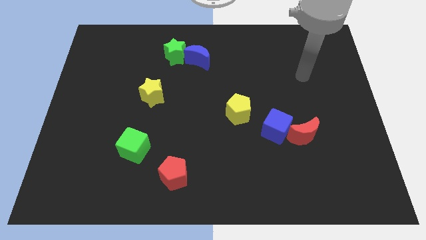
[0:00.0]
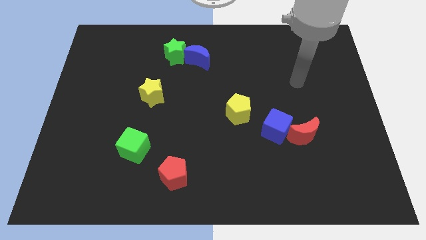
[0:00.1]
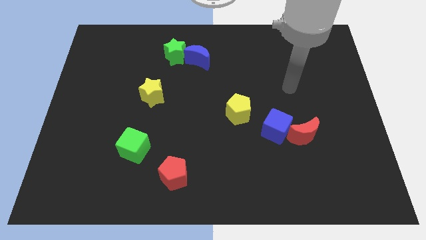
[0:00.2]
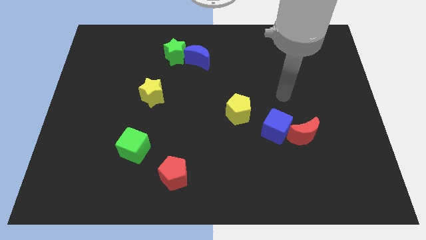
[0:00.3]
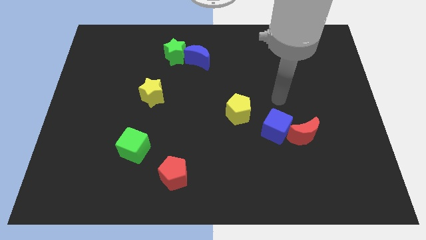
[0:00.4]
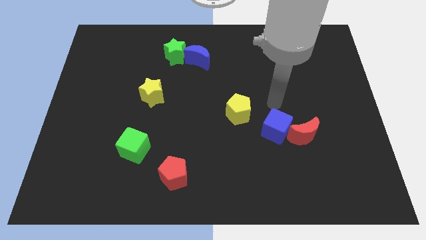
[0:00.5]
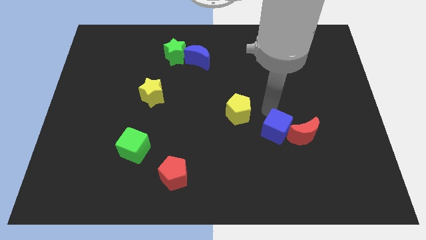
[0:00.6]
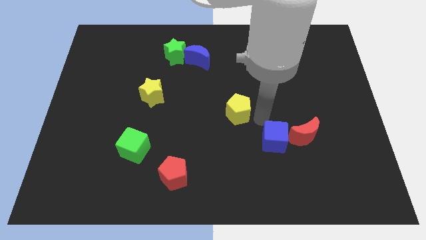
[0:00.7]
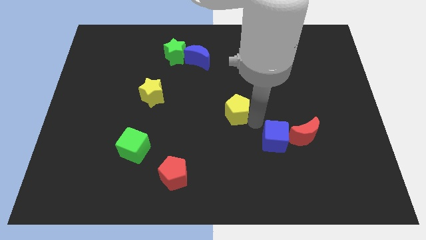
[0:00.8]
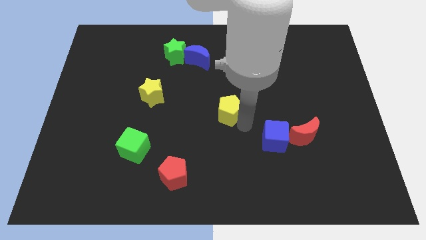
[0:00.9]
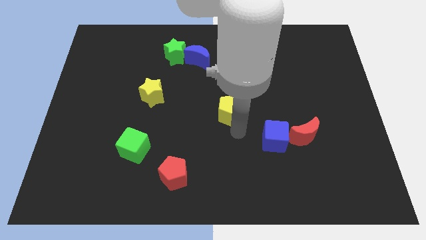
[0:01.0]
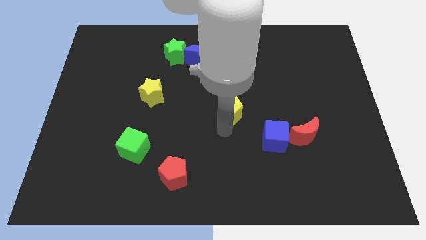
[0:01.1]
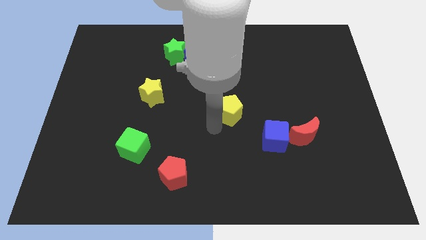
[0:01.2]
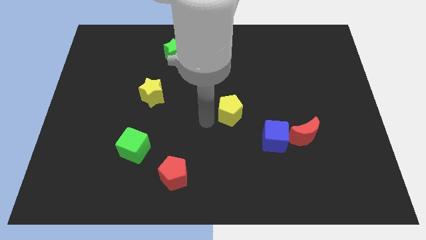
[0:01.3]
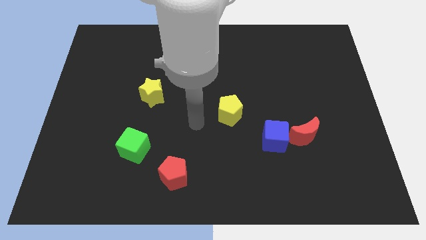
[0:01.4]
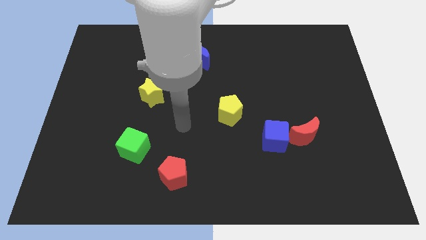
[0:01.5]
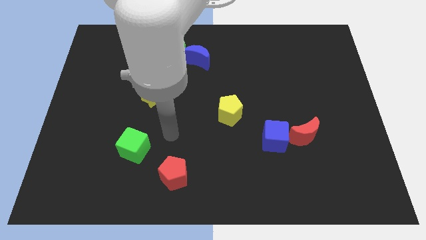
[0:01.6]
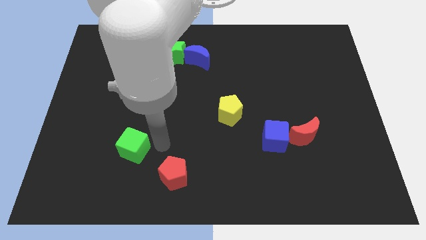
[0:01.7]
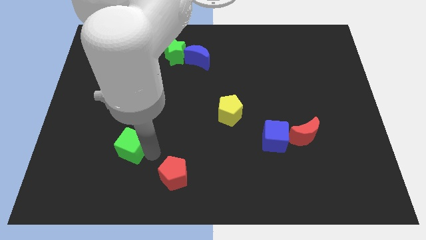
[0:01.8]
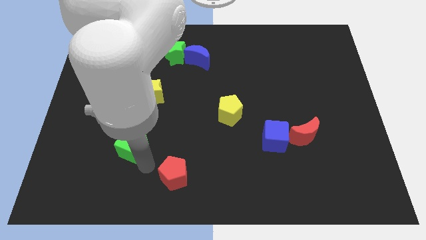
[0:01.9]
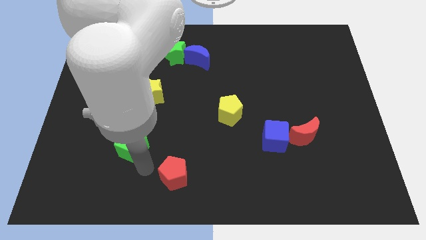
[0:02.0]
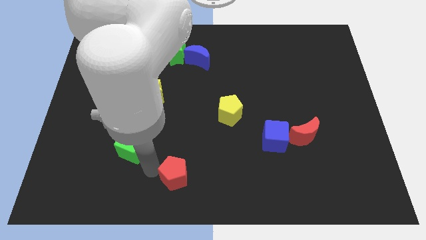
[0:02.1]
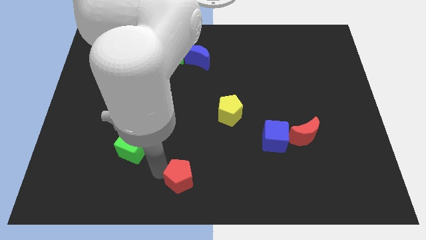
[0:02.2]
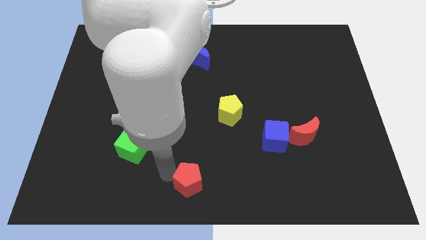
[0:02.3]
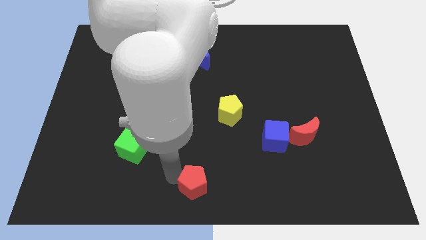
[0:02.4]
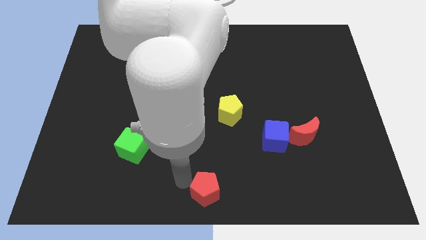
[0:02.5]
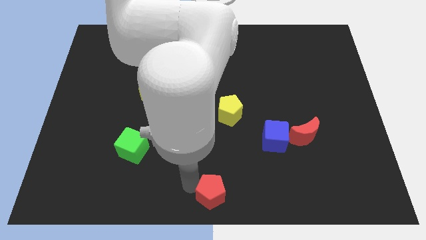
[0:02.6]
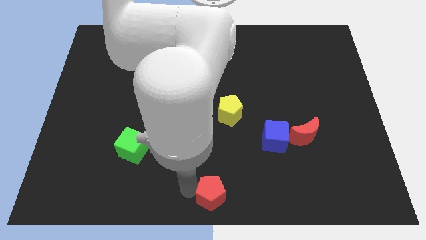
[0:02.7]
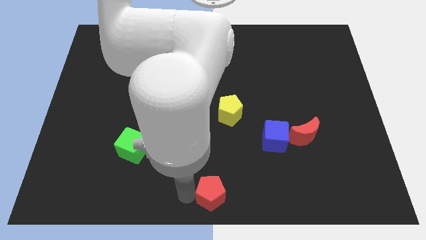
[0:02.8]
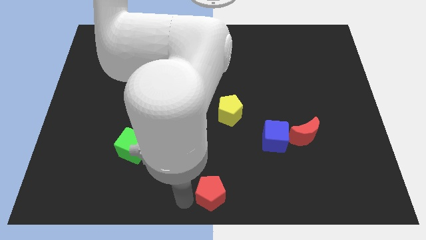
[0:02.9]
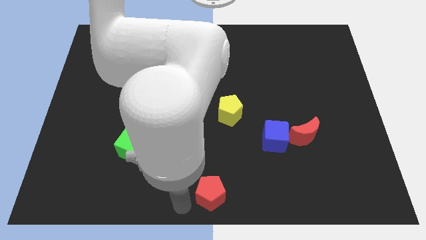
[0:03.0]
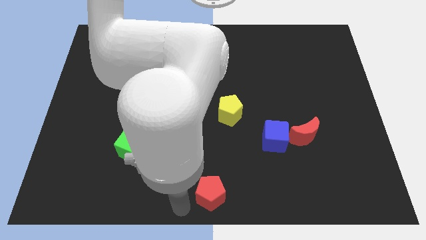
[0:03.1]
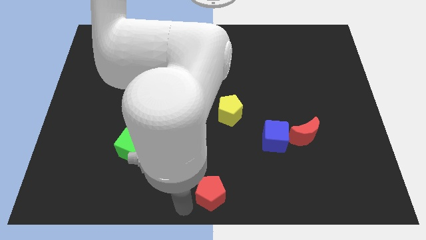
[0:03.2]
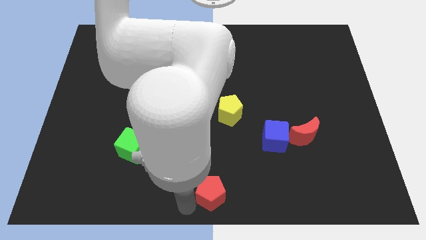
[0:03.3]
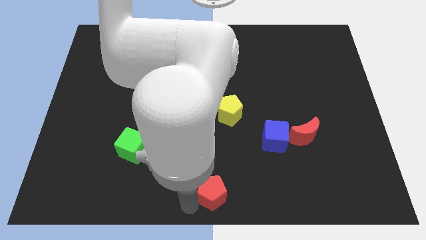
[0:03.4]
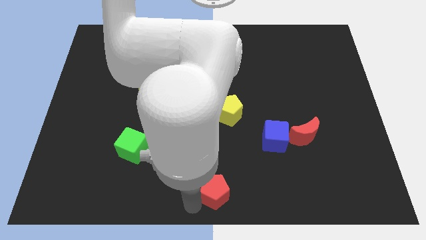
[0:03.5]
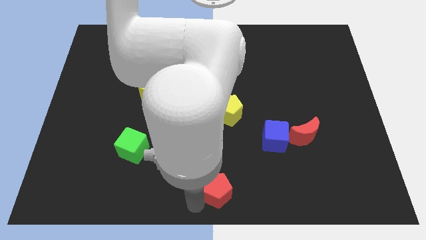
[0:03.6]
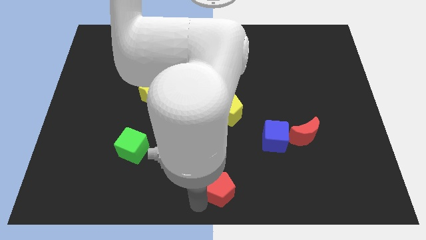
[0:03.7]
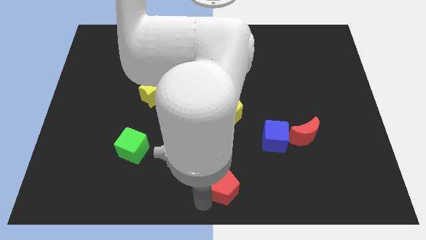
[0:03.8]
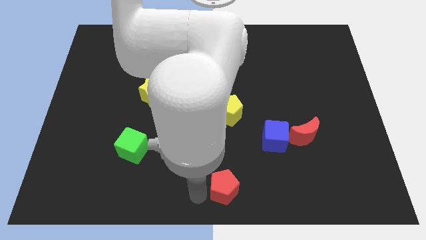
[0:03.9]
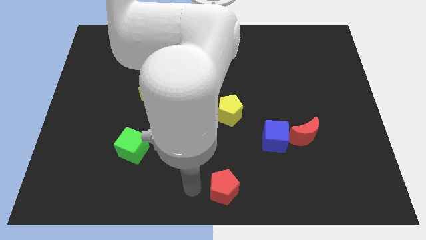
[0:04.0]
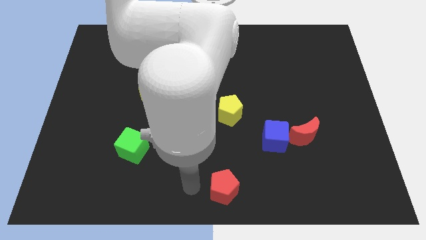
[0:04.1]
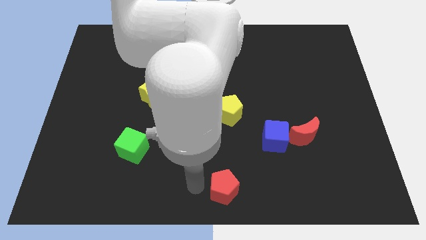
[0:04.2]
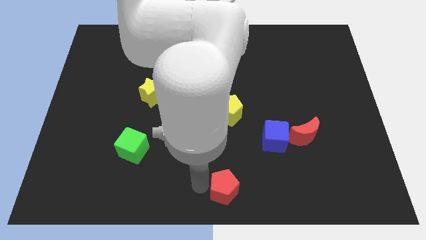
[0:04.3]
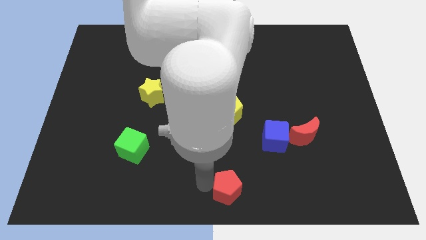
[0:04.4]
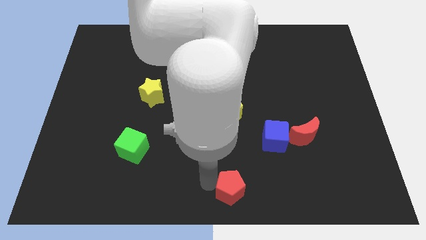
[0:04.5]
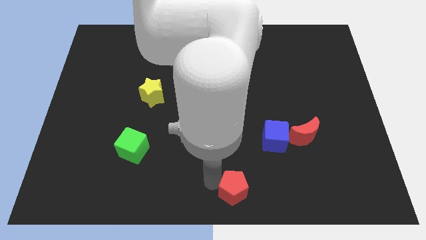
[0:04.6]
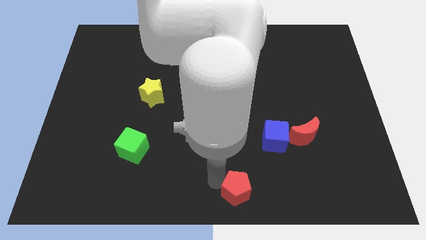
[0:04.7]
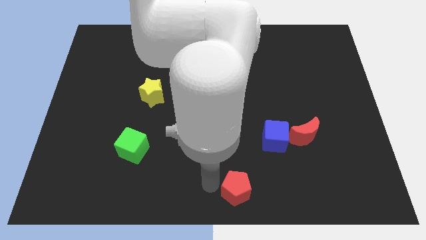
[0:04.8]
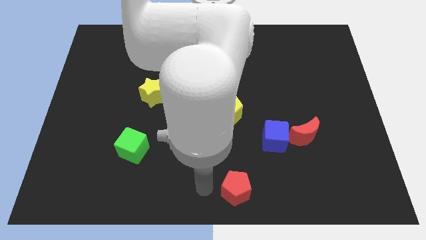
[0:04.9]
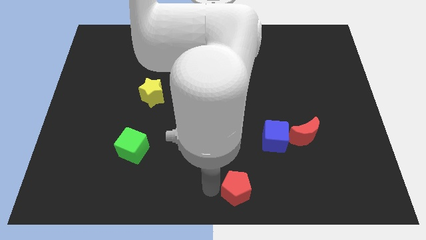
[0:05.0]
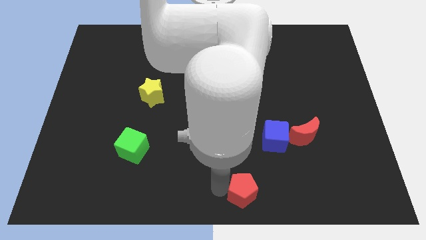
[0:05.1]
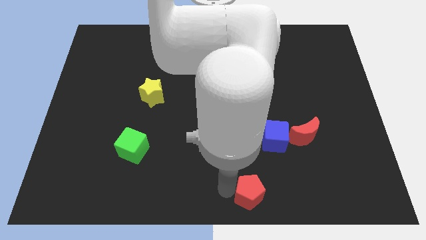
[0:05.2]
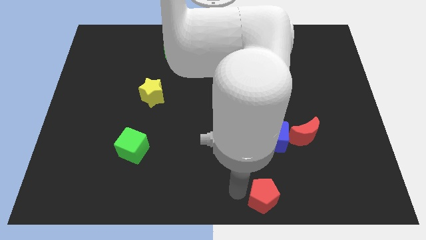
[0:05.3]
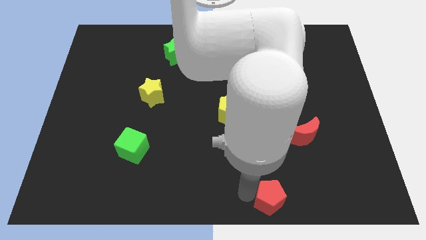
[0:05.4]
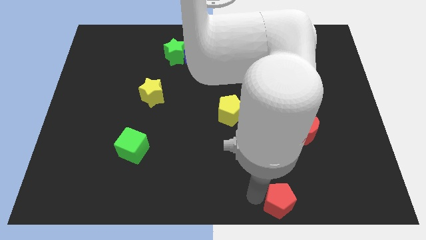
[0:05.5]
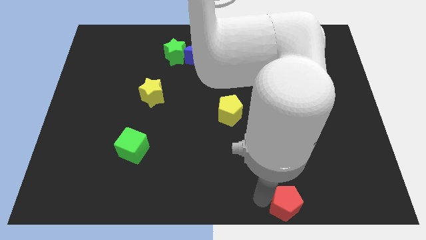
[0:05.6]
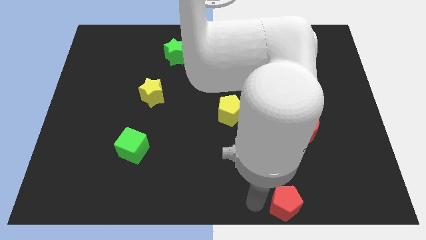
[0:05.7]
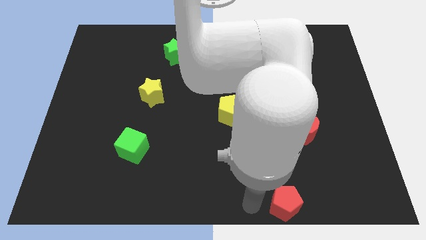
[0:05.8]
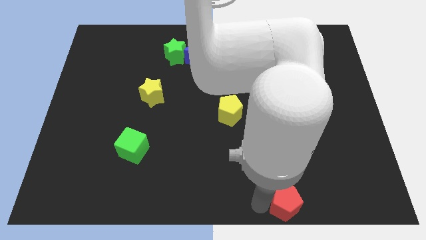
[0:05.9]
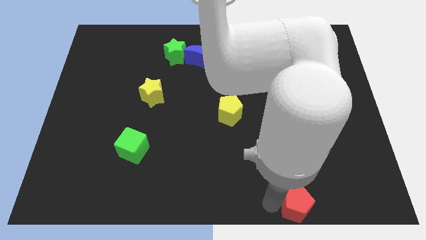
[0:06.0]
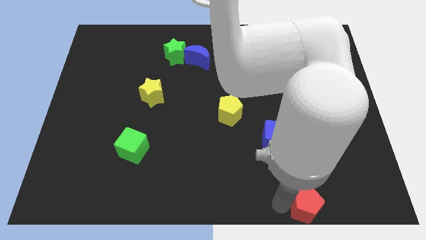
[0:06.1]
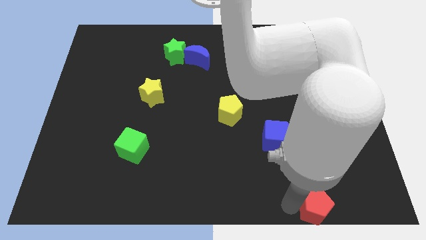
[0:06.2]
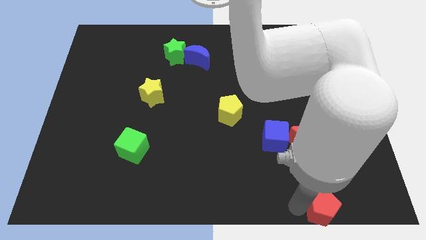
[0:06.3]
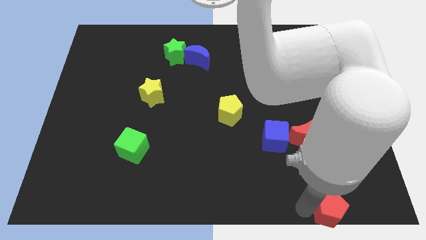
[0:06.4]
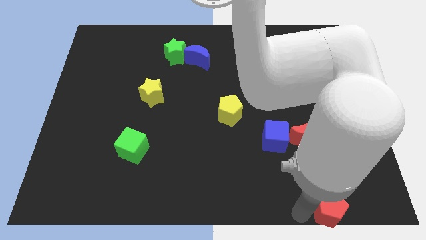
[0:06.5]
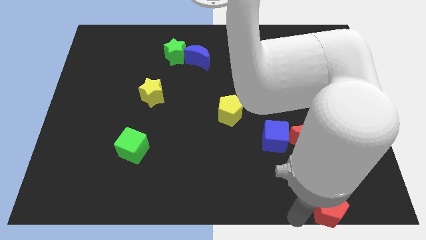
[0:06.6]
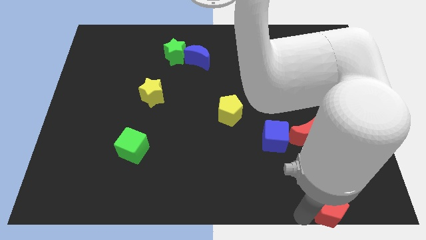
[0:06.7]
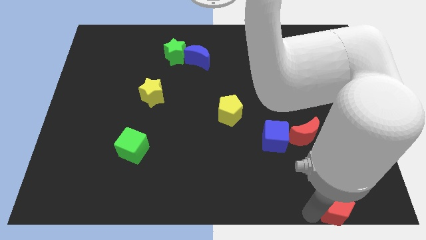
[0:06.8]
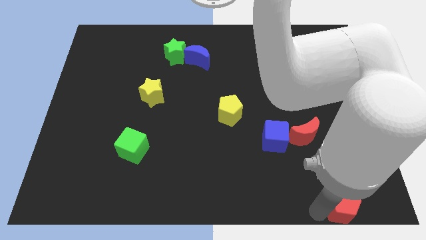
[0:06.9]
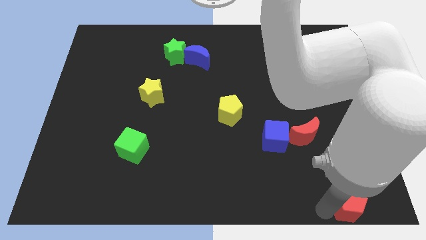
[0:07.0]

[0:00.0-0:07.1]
move the red pentagon to the lower right corner
